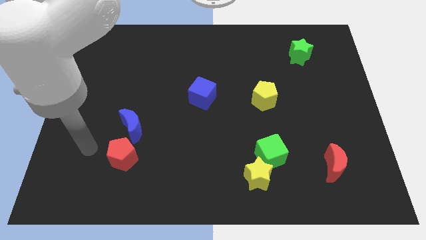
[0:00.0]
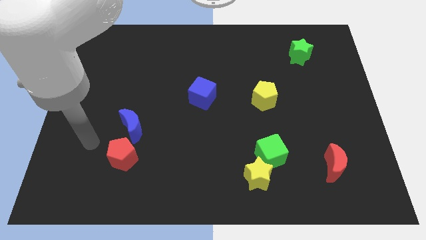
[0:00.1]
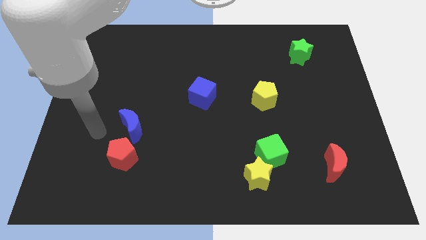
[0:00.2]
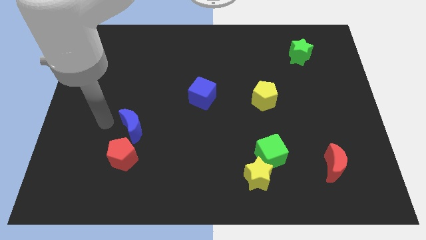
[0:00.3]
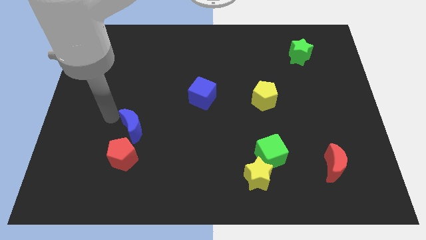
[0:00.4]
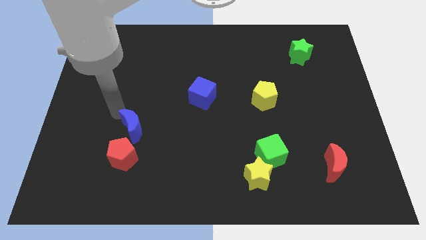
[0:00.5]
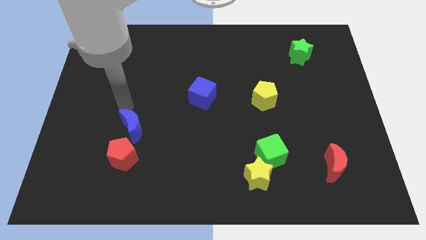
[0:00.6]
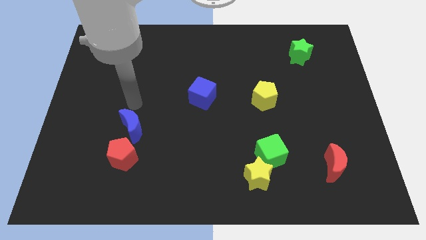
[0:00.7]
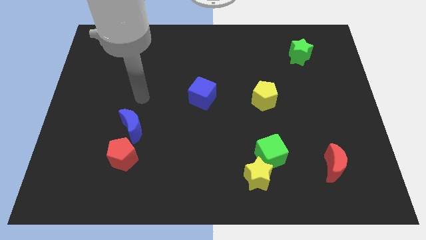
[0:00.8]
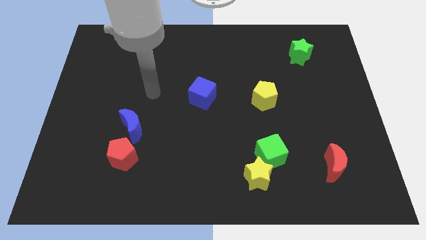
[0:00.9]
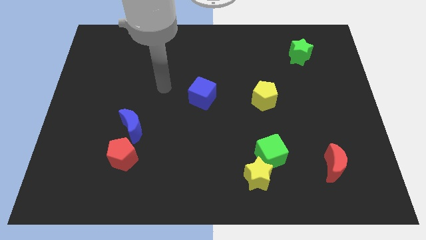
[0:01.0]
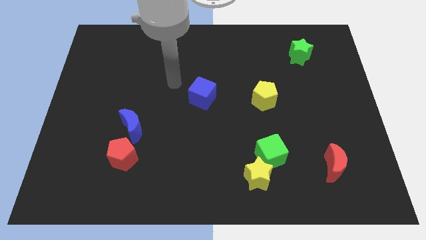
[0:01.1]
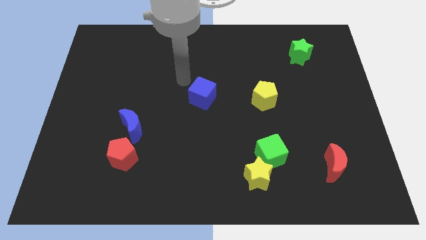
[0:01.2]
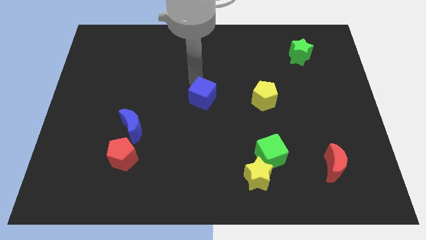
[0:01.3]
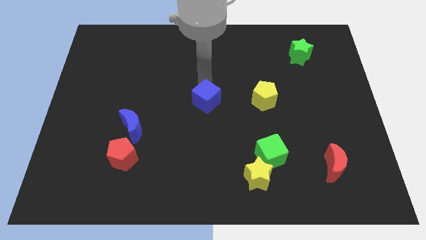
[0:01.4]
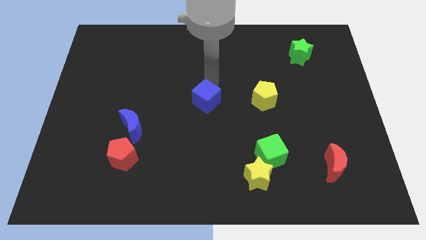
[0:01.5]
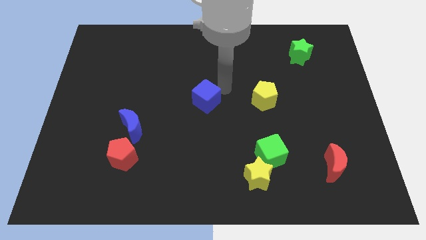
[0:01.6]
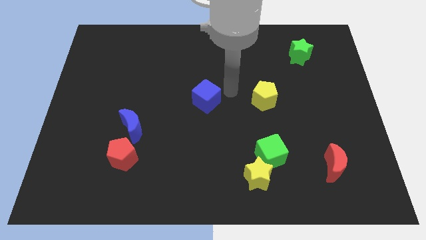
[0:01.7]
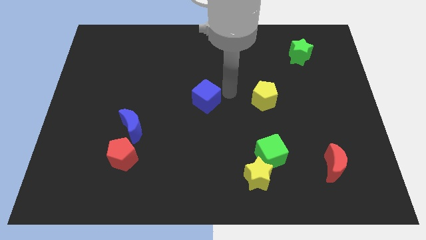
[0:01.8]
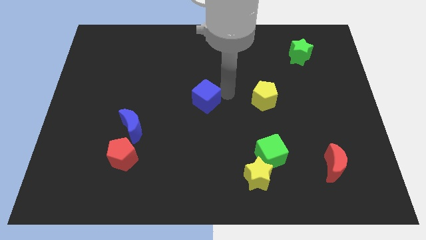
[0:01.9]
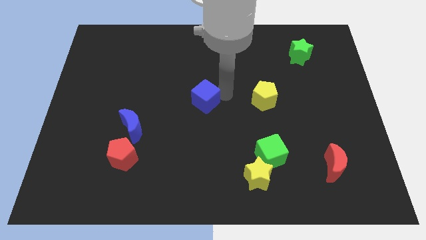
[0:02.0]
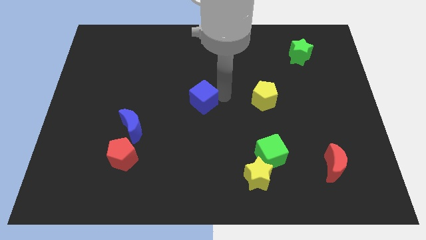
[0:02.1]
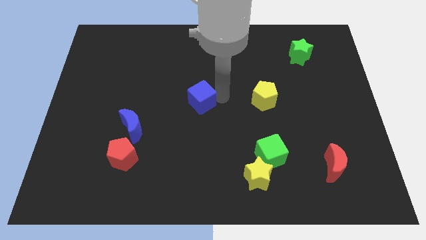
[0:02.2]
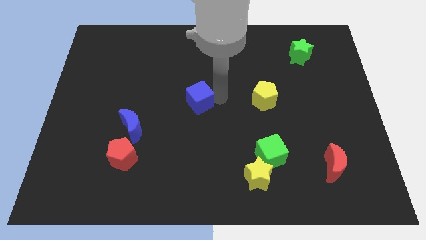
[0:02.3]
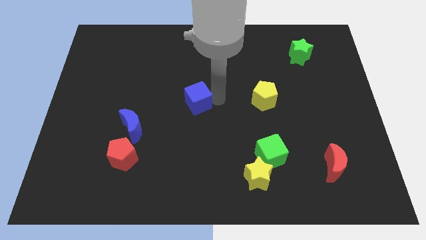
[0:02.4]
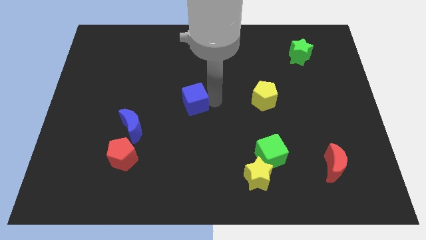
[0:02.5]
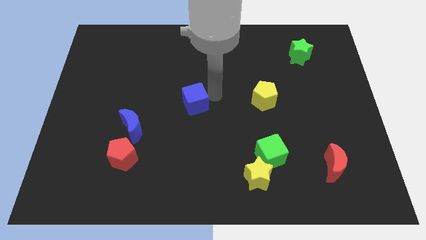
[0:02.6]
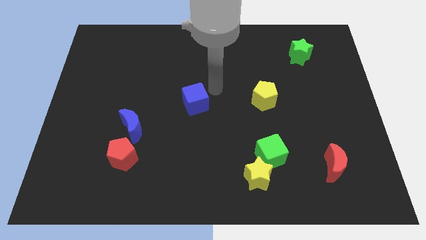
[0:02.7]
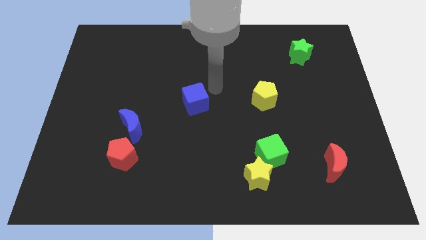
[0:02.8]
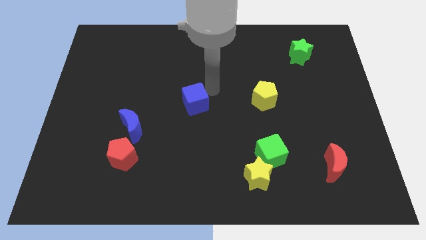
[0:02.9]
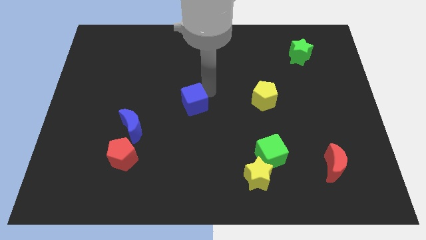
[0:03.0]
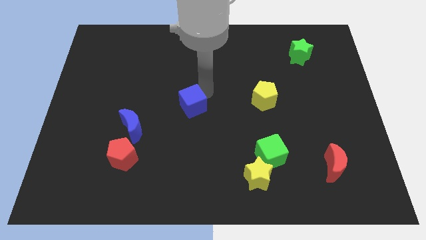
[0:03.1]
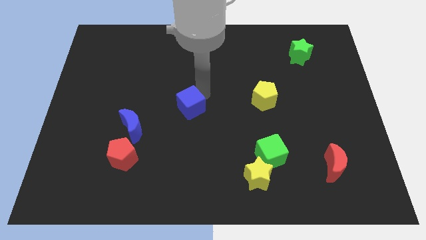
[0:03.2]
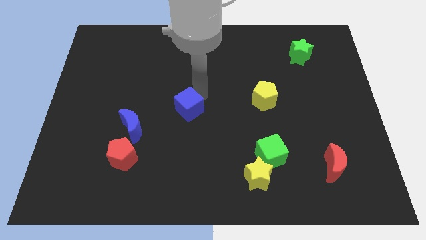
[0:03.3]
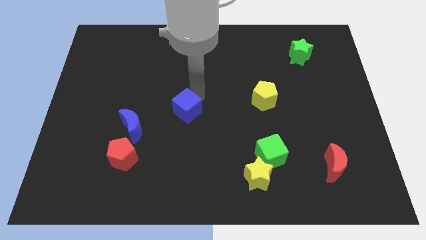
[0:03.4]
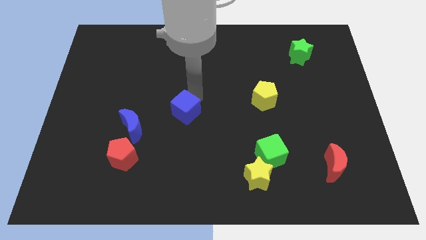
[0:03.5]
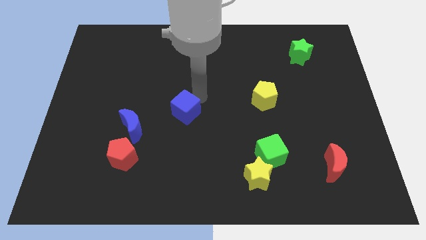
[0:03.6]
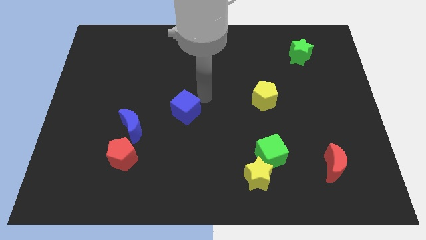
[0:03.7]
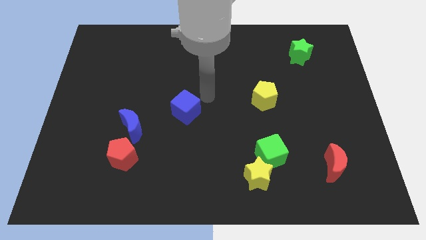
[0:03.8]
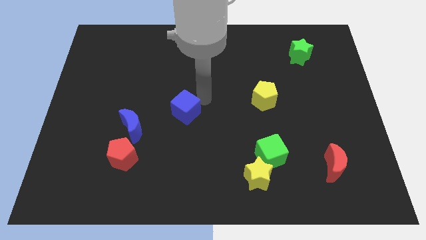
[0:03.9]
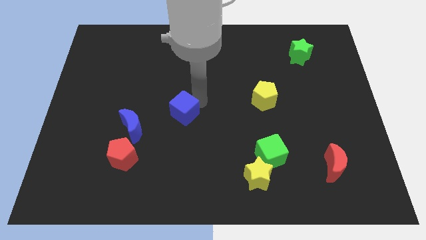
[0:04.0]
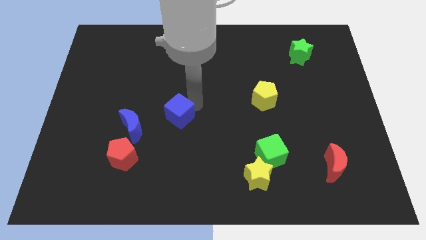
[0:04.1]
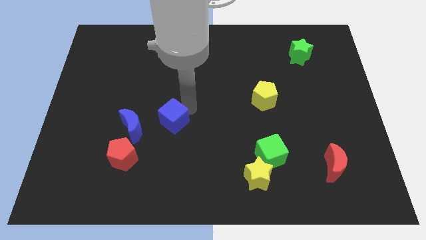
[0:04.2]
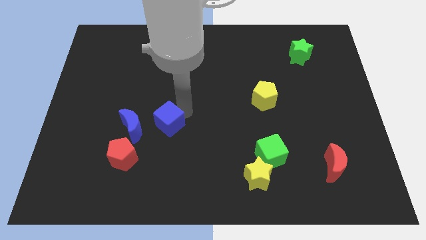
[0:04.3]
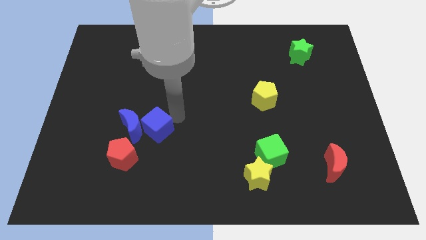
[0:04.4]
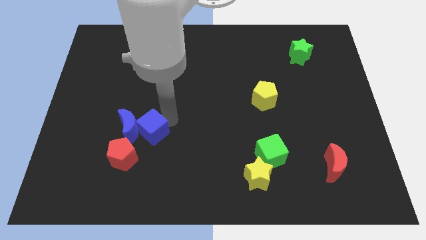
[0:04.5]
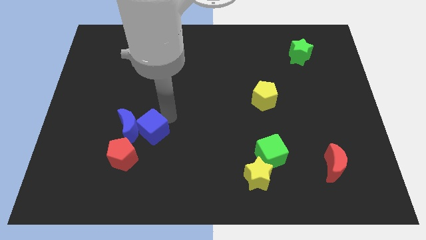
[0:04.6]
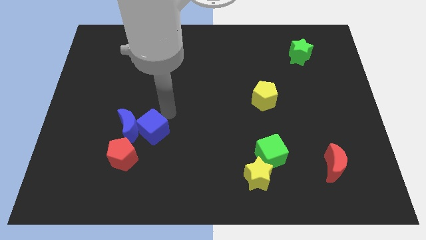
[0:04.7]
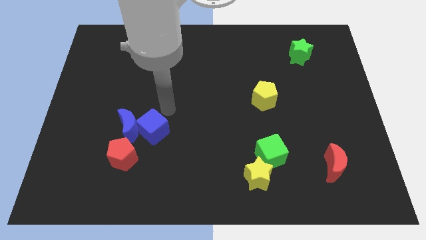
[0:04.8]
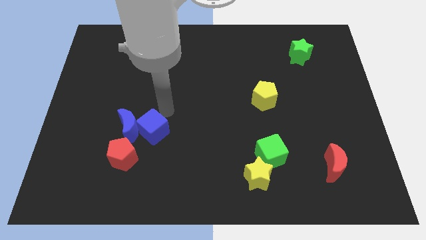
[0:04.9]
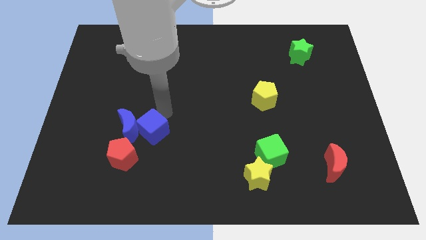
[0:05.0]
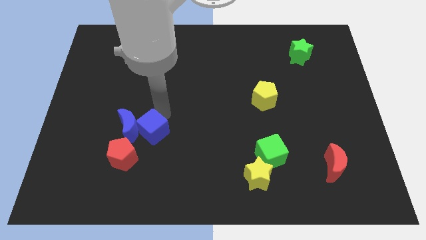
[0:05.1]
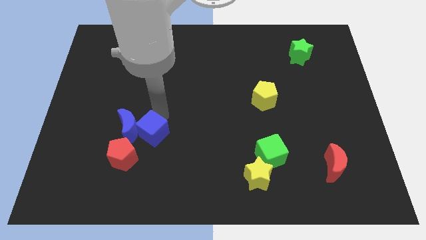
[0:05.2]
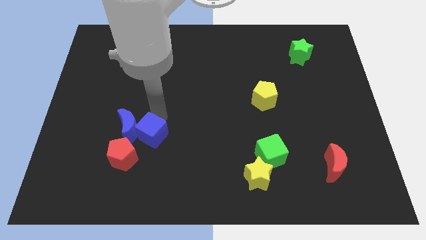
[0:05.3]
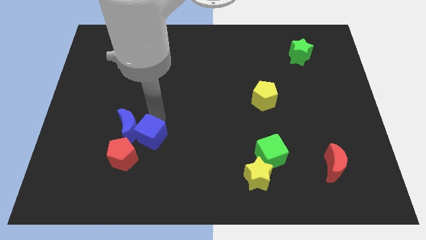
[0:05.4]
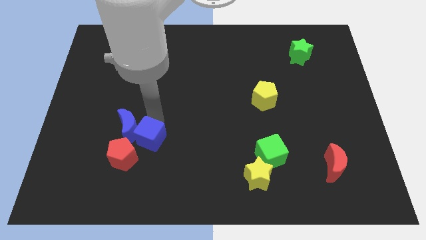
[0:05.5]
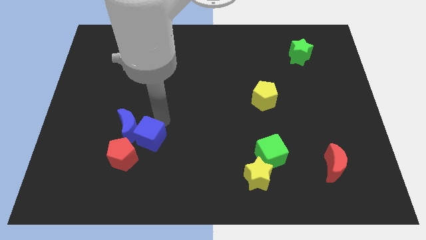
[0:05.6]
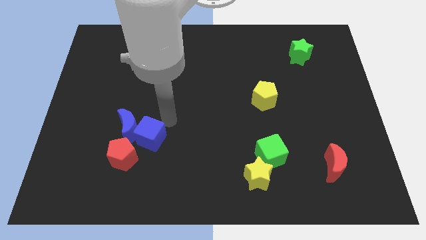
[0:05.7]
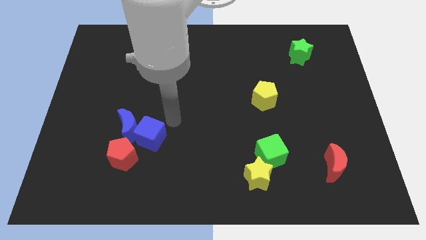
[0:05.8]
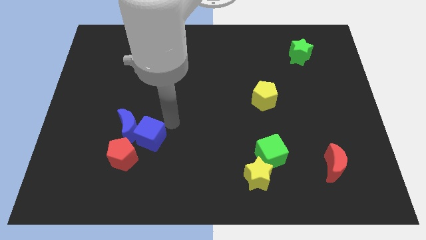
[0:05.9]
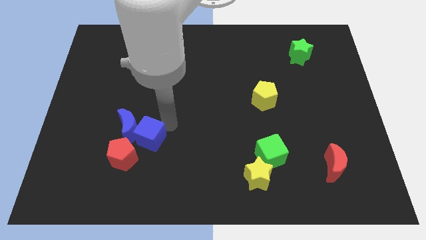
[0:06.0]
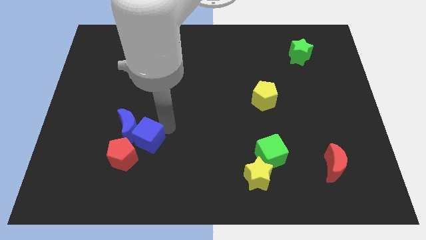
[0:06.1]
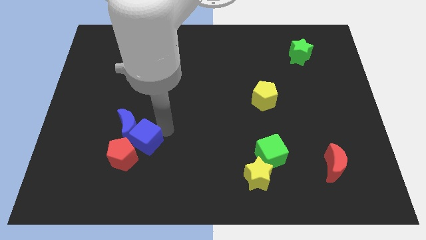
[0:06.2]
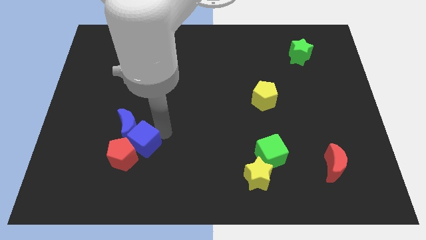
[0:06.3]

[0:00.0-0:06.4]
put the blue cube close to the red pentagon

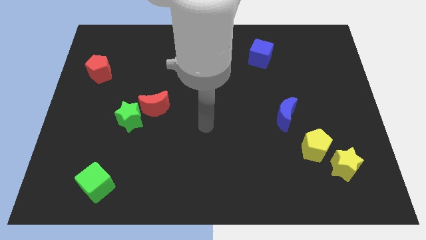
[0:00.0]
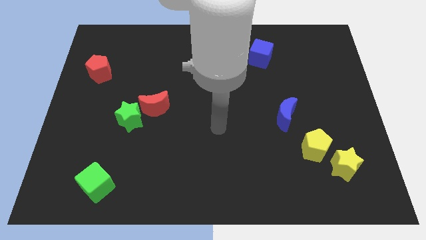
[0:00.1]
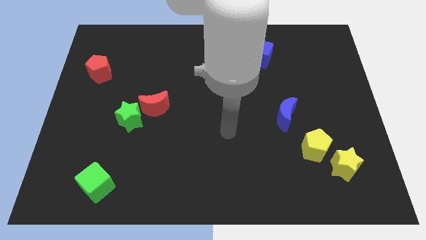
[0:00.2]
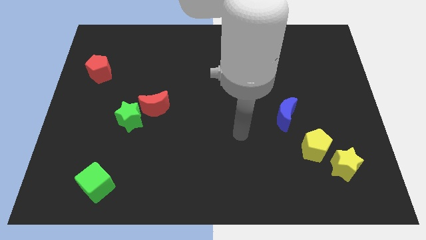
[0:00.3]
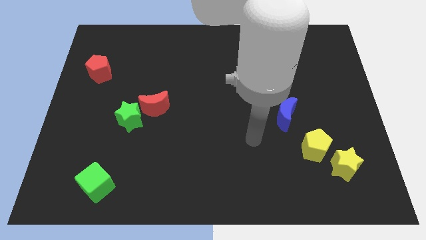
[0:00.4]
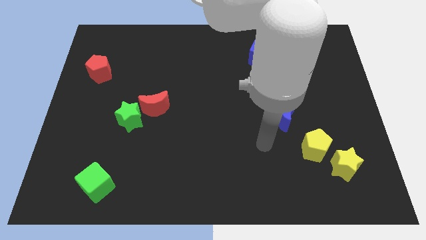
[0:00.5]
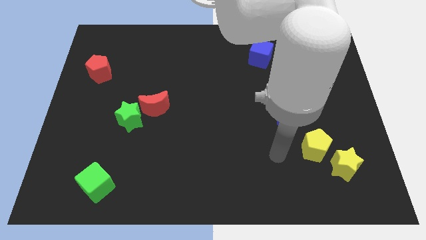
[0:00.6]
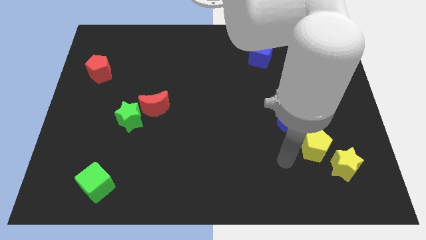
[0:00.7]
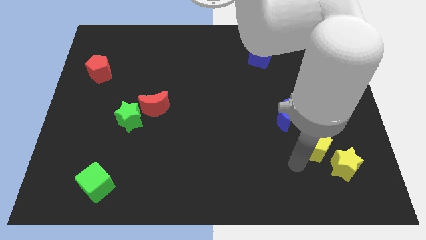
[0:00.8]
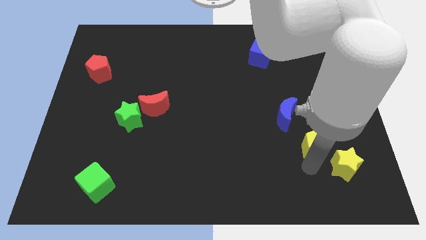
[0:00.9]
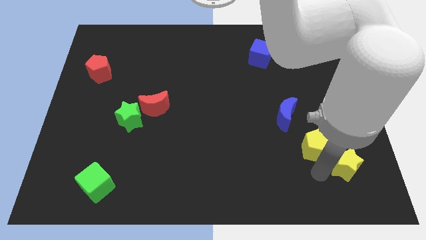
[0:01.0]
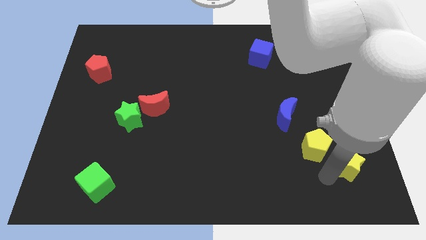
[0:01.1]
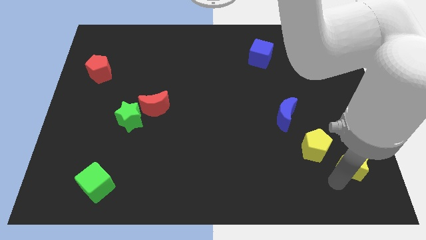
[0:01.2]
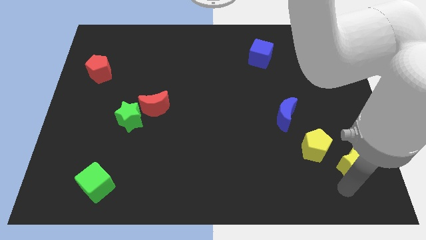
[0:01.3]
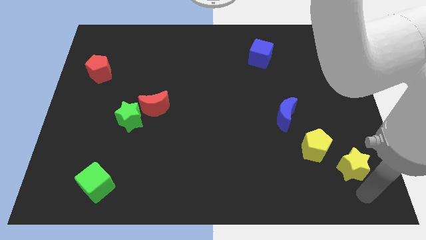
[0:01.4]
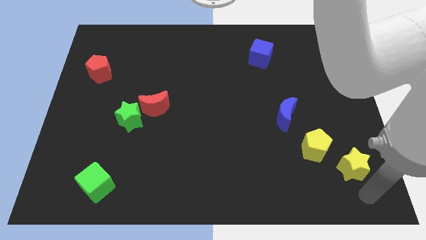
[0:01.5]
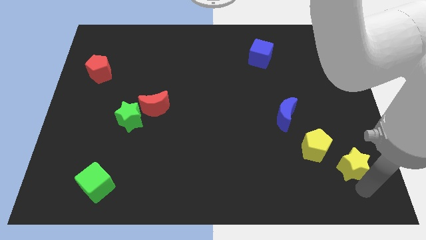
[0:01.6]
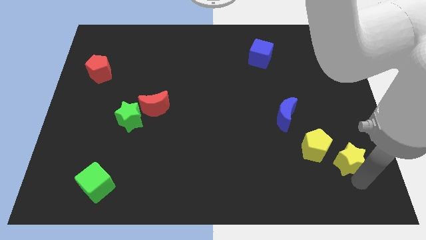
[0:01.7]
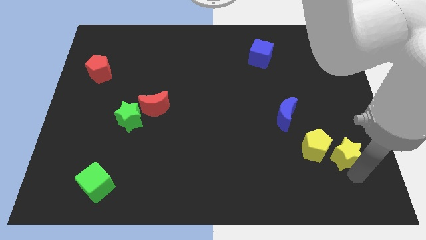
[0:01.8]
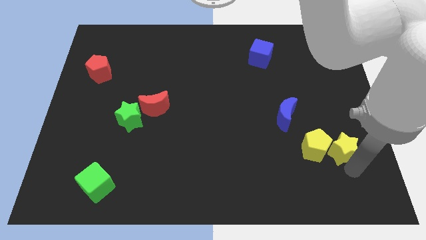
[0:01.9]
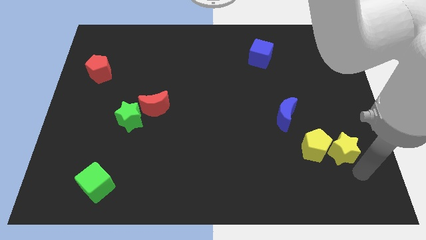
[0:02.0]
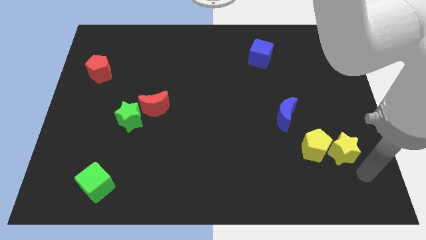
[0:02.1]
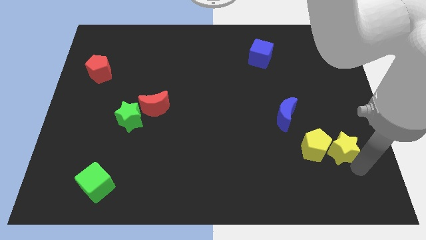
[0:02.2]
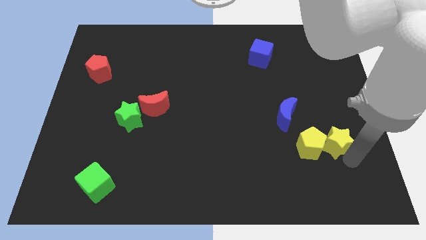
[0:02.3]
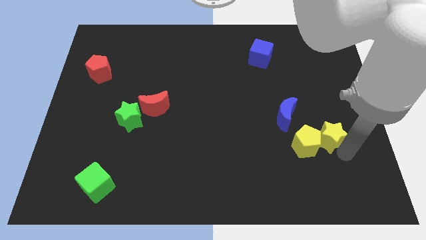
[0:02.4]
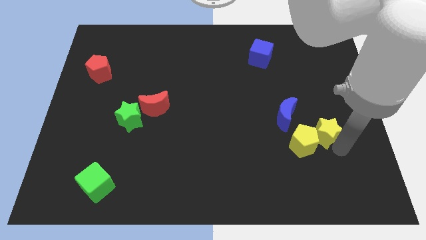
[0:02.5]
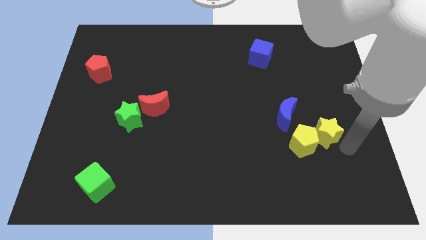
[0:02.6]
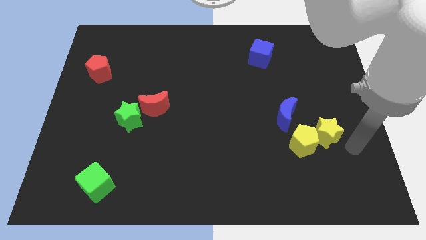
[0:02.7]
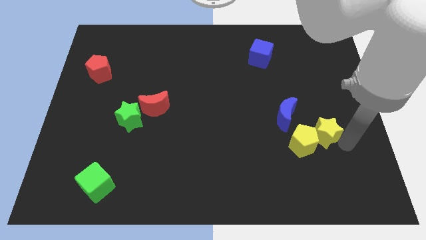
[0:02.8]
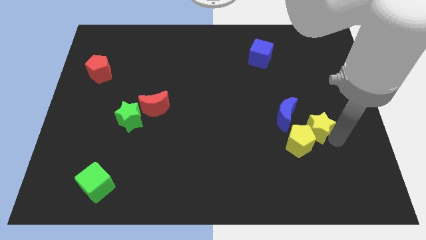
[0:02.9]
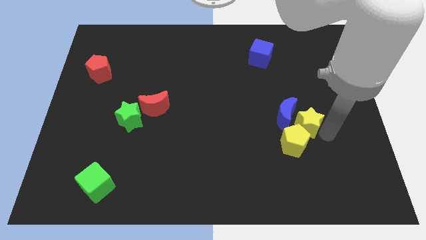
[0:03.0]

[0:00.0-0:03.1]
put the yellow star close to the blue moon
